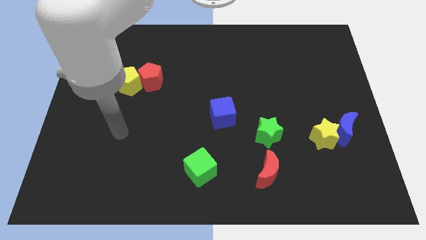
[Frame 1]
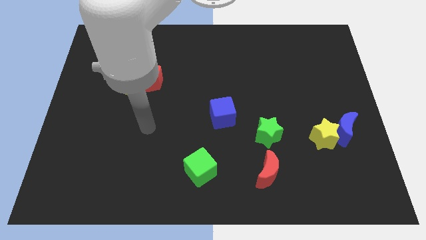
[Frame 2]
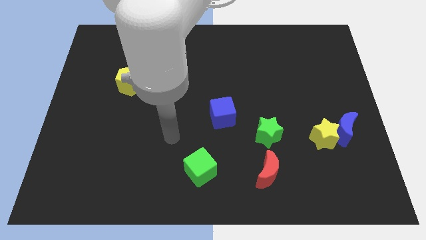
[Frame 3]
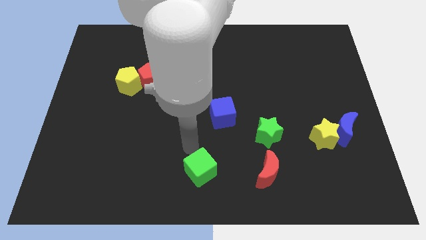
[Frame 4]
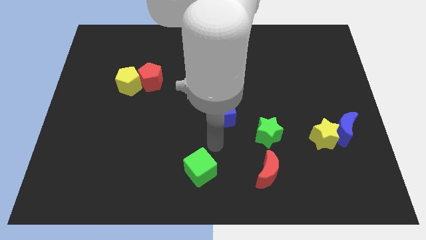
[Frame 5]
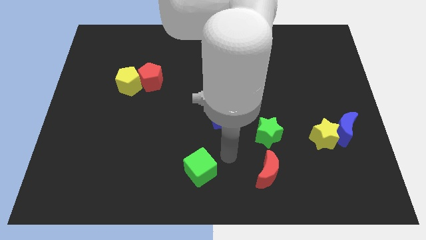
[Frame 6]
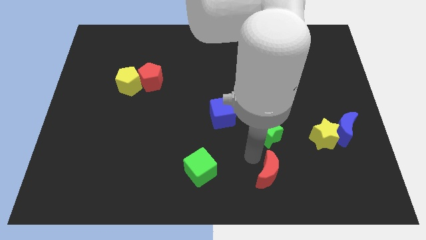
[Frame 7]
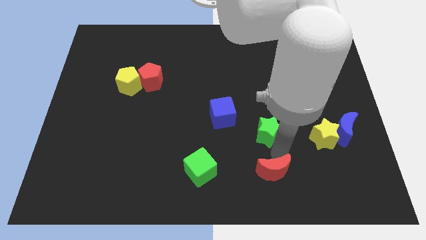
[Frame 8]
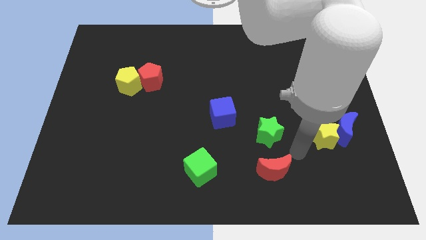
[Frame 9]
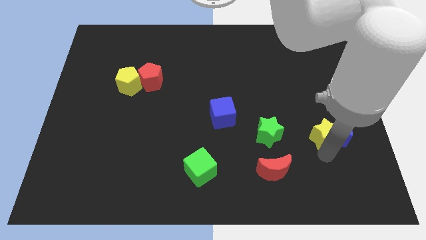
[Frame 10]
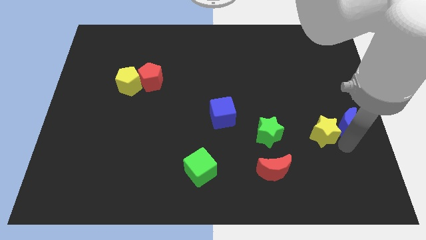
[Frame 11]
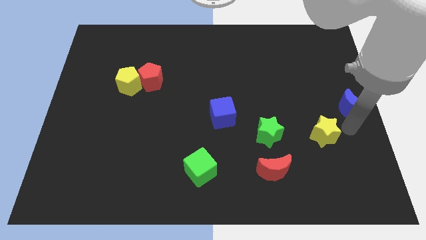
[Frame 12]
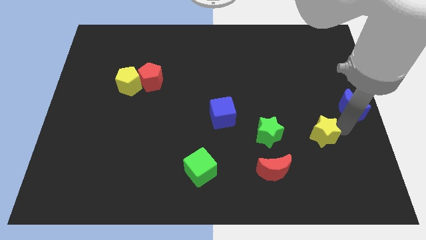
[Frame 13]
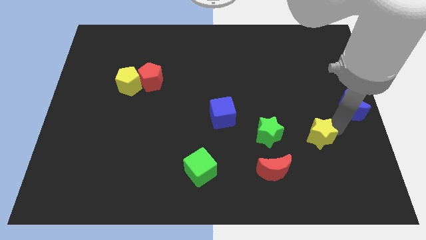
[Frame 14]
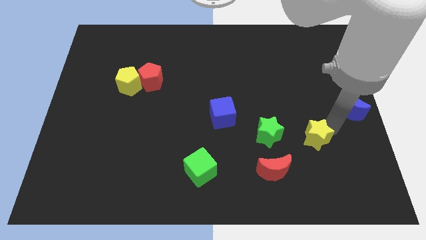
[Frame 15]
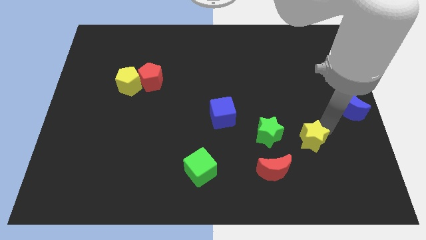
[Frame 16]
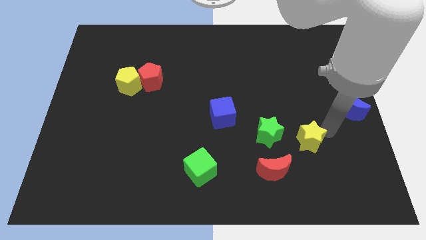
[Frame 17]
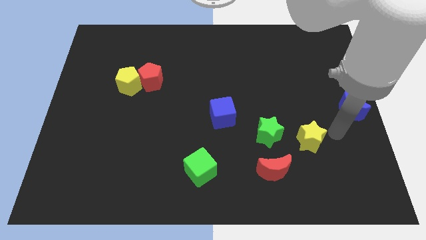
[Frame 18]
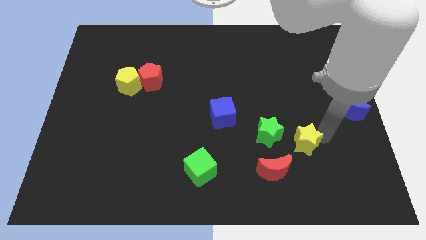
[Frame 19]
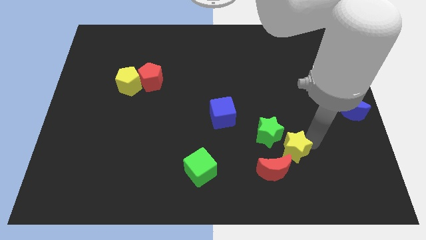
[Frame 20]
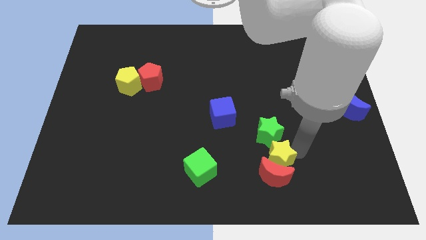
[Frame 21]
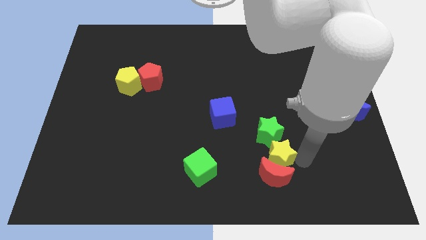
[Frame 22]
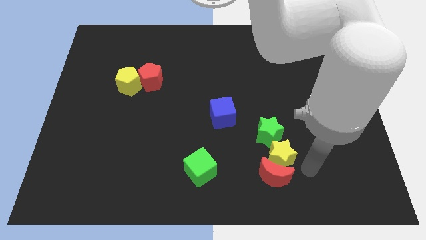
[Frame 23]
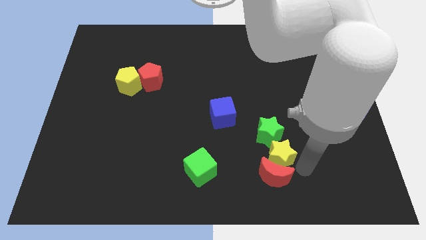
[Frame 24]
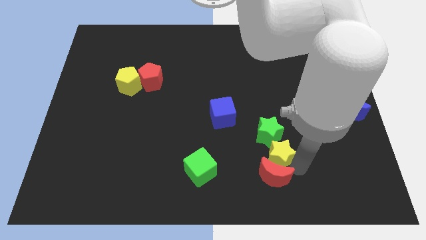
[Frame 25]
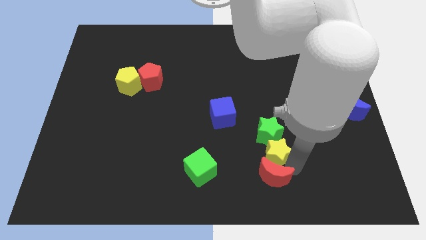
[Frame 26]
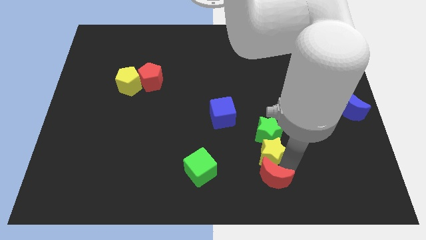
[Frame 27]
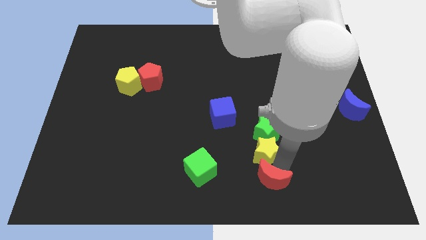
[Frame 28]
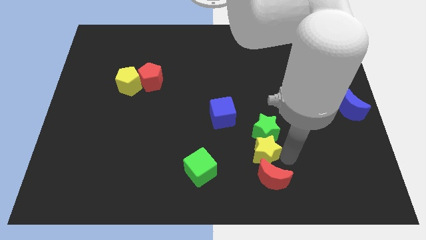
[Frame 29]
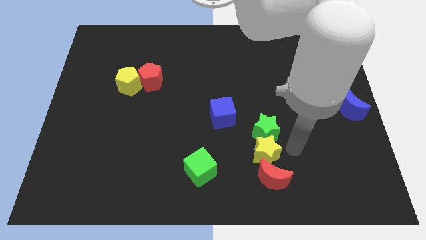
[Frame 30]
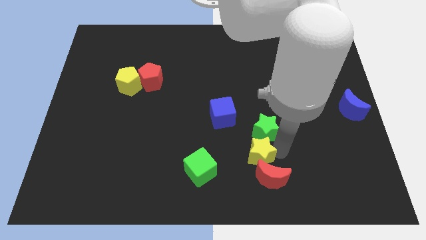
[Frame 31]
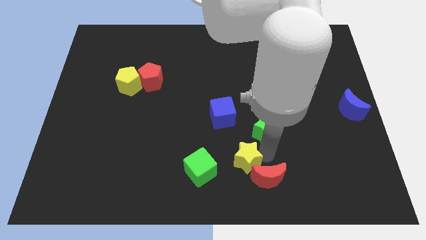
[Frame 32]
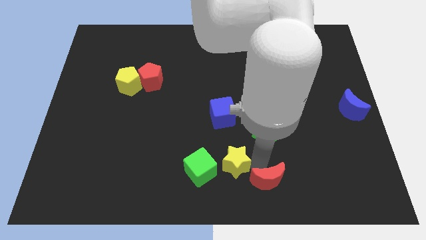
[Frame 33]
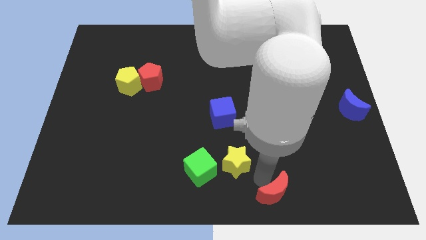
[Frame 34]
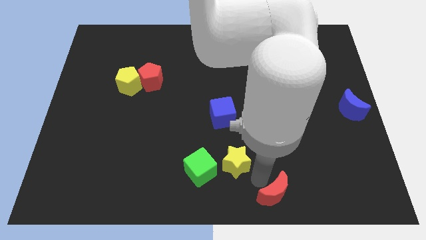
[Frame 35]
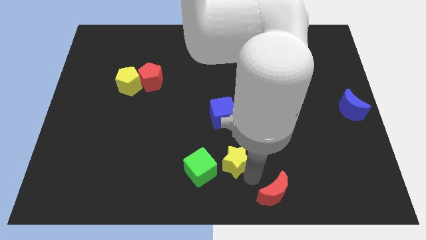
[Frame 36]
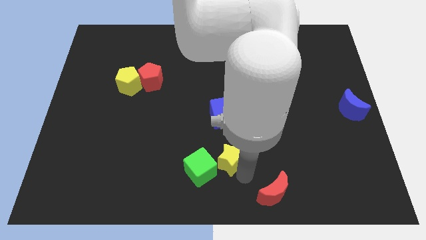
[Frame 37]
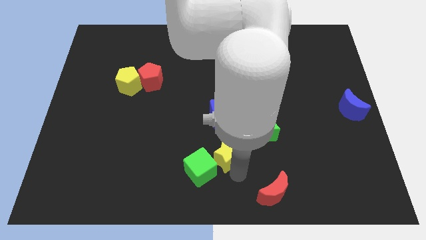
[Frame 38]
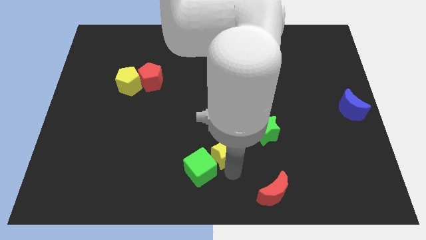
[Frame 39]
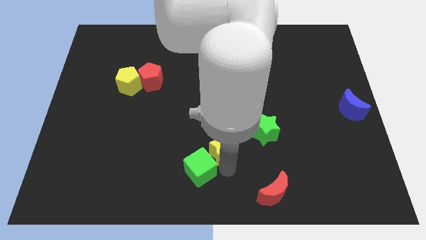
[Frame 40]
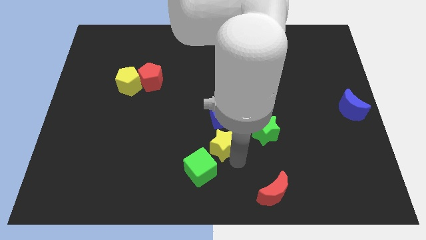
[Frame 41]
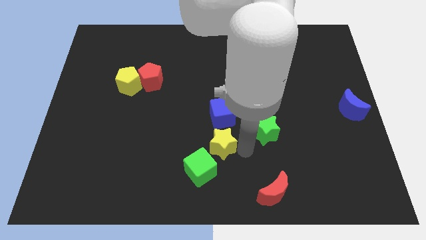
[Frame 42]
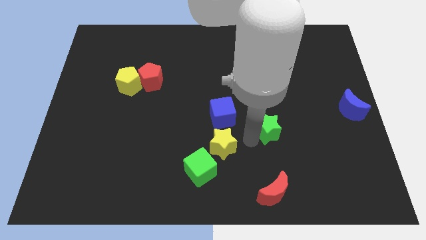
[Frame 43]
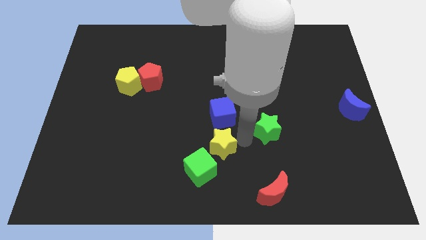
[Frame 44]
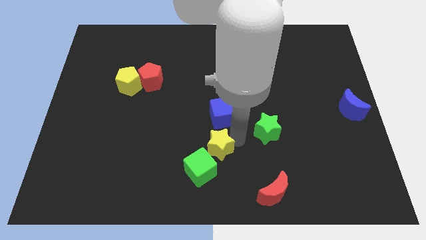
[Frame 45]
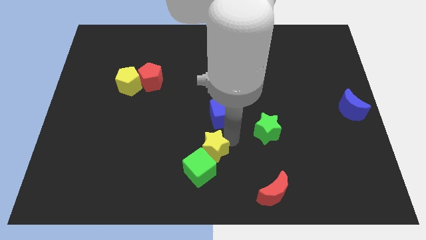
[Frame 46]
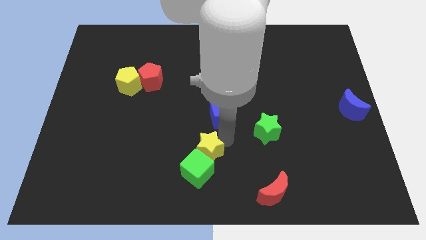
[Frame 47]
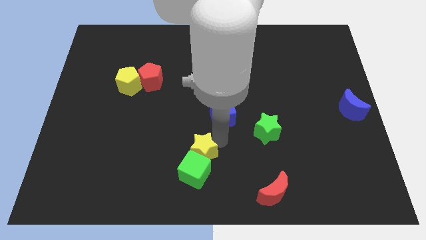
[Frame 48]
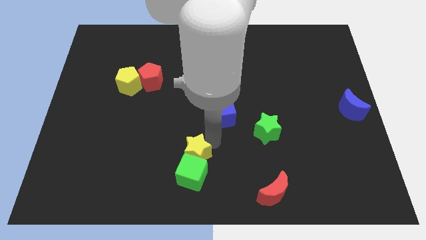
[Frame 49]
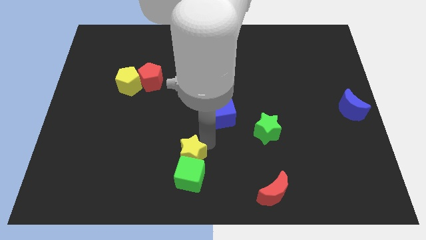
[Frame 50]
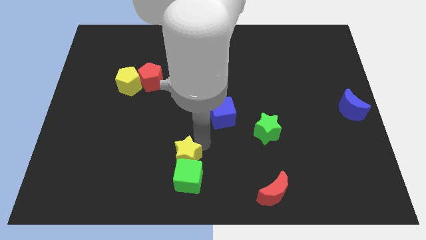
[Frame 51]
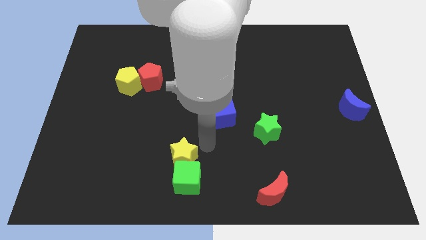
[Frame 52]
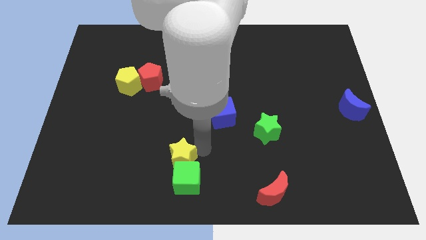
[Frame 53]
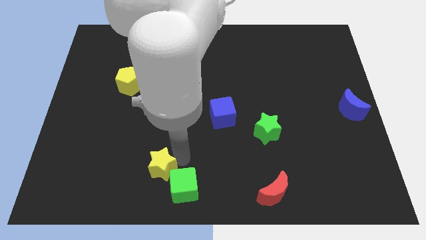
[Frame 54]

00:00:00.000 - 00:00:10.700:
put the yellow star to the left side of the green cube

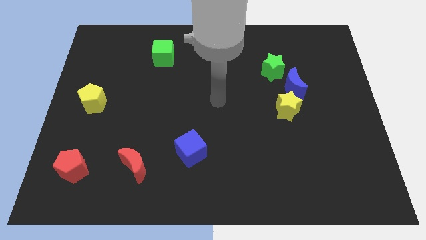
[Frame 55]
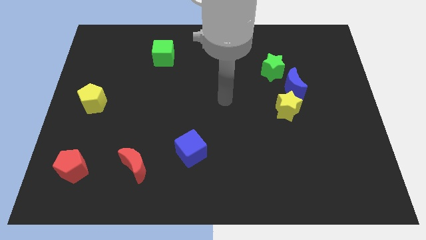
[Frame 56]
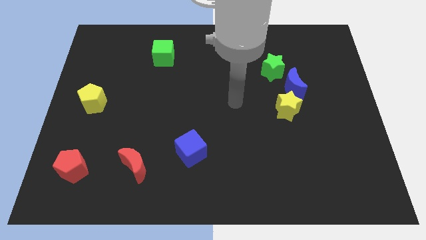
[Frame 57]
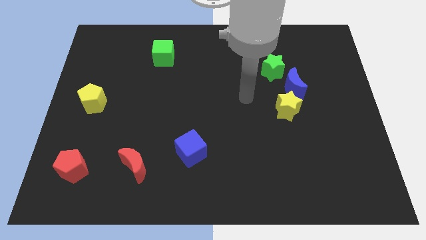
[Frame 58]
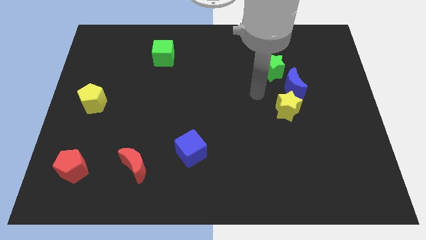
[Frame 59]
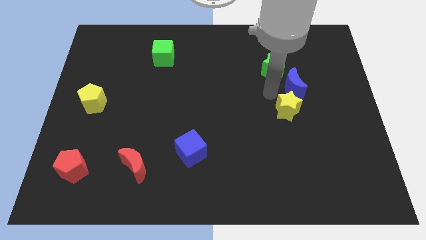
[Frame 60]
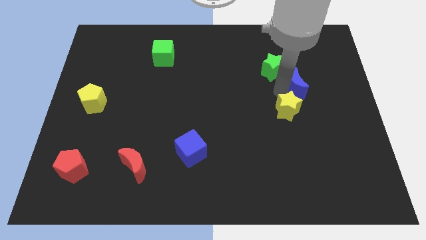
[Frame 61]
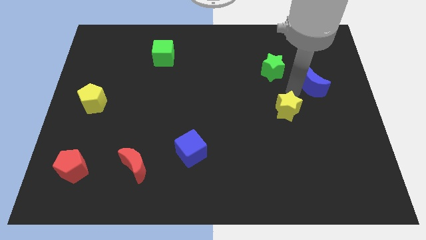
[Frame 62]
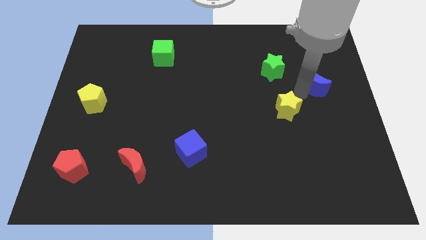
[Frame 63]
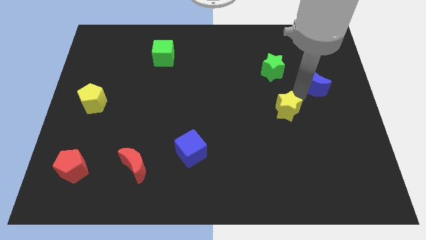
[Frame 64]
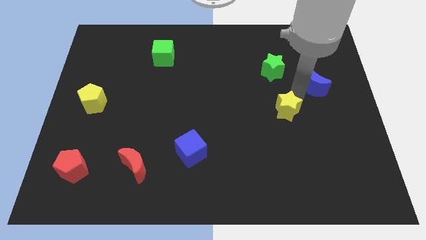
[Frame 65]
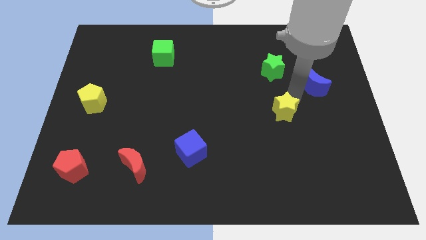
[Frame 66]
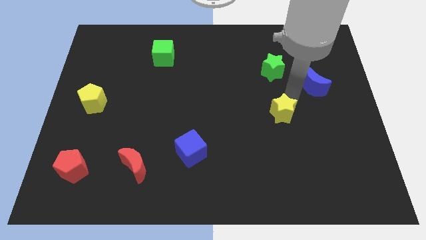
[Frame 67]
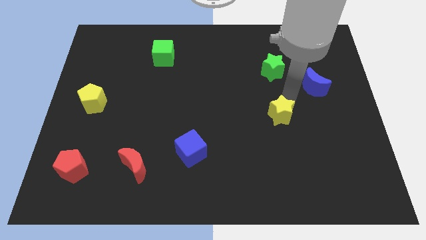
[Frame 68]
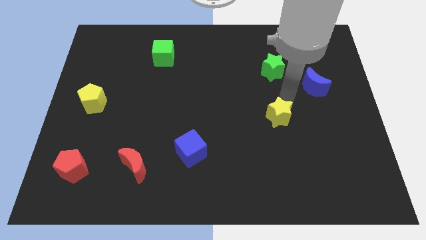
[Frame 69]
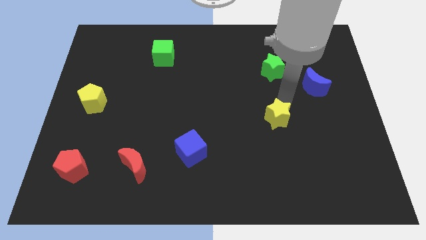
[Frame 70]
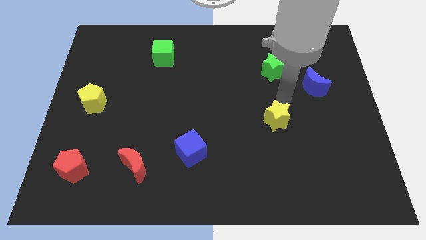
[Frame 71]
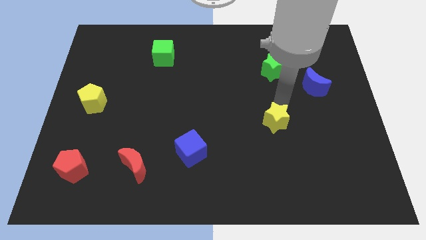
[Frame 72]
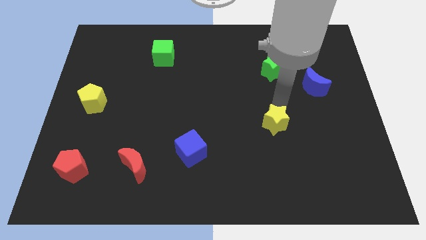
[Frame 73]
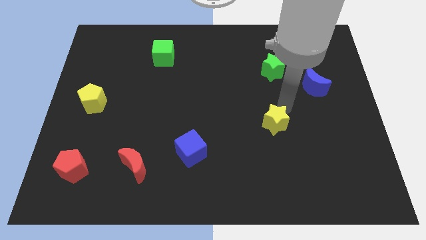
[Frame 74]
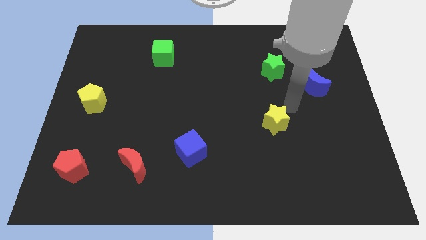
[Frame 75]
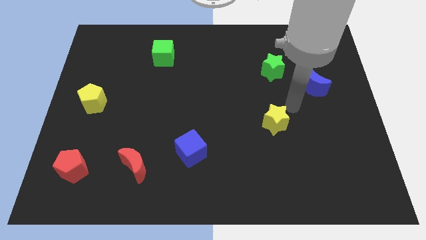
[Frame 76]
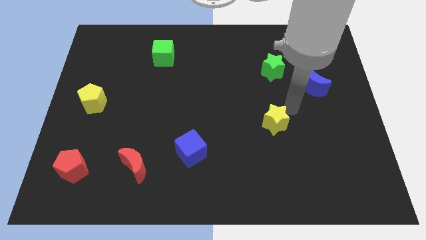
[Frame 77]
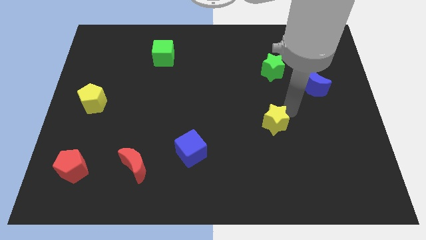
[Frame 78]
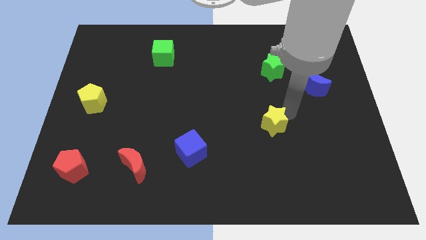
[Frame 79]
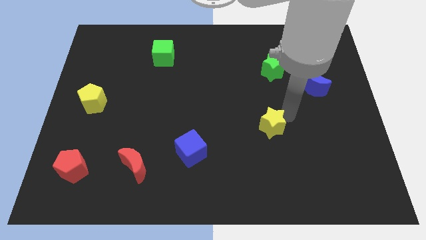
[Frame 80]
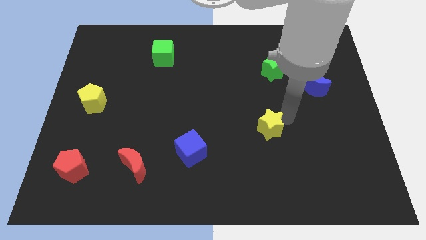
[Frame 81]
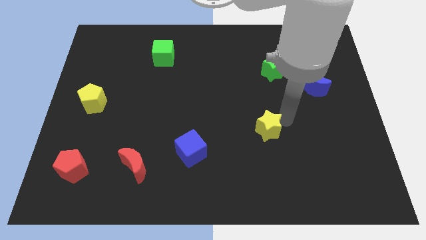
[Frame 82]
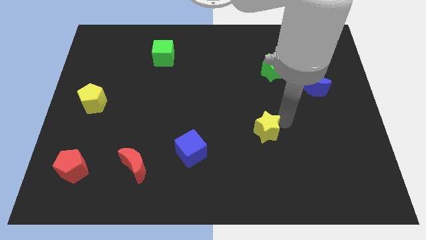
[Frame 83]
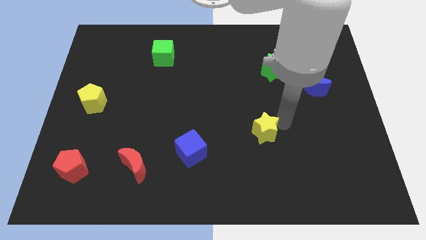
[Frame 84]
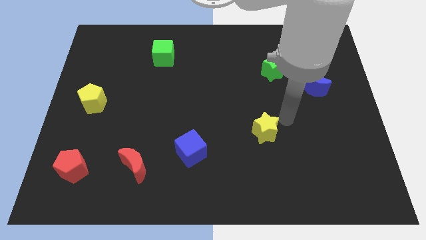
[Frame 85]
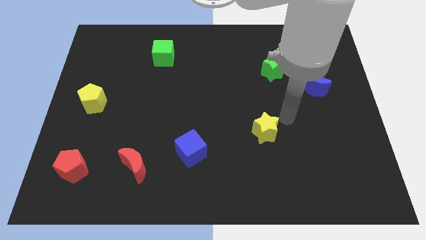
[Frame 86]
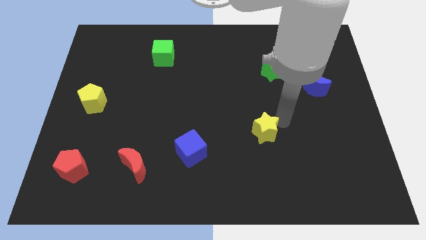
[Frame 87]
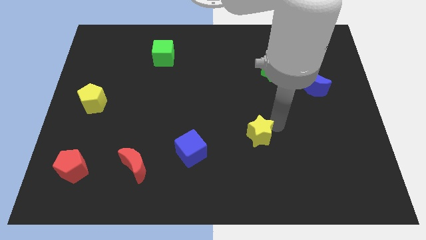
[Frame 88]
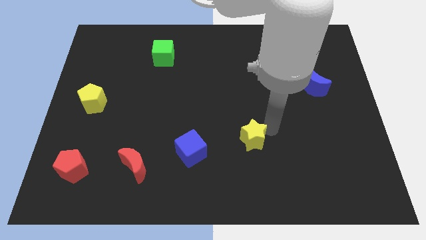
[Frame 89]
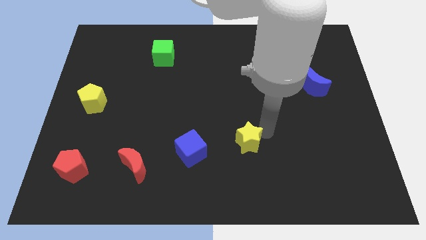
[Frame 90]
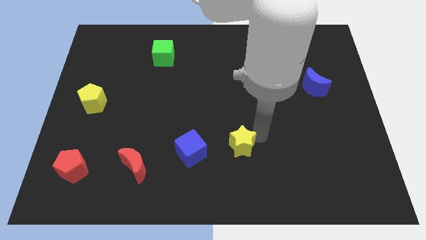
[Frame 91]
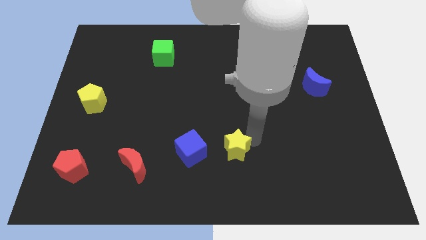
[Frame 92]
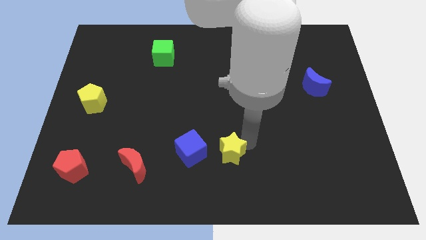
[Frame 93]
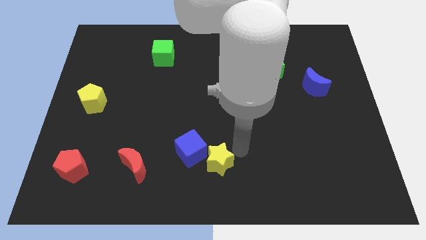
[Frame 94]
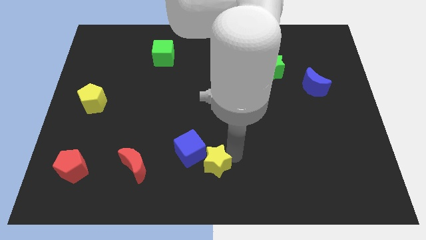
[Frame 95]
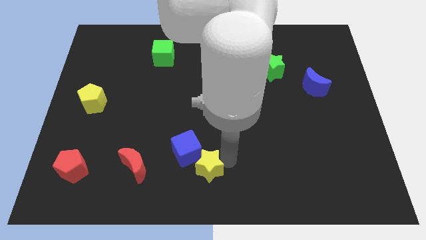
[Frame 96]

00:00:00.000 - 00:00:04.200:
push the yellow star right of the red moon
